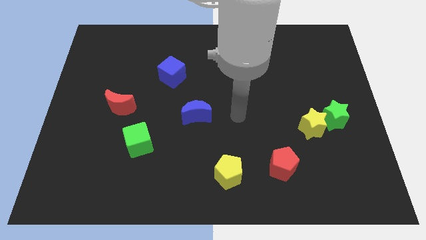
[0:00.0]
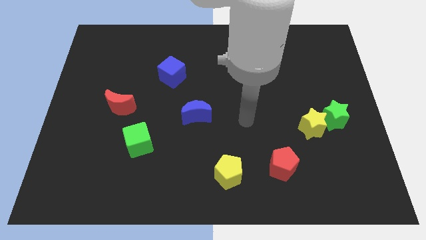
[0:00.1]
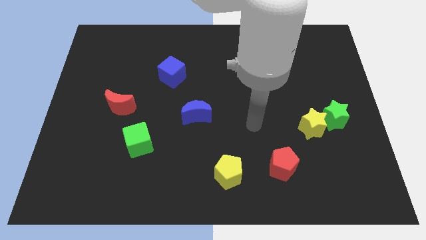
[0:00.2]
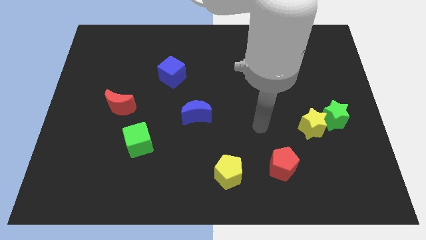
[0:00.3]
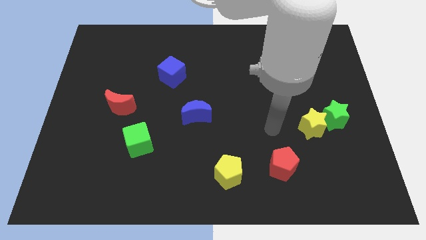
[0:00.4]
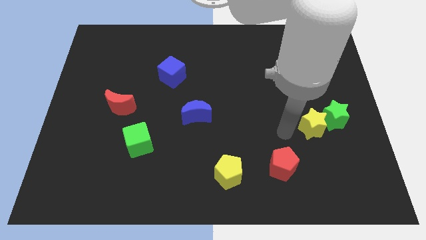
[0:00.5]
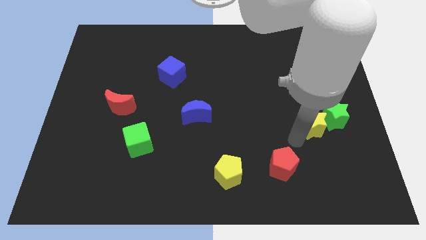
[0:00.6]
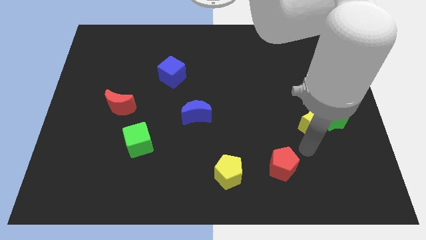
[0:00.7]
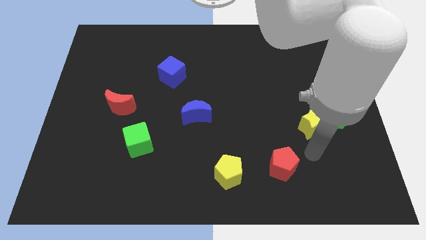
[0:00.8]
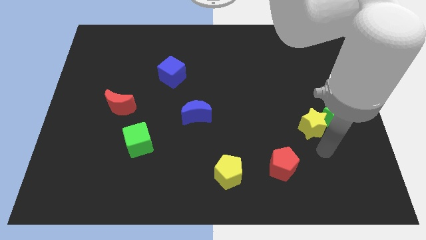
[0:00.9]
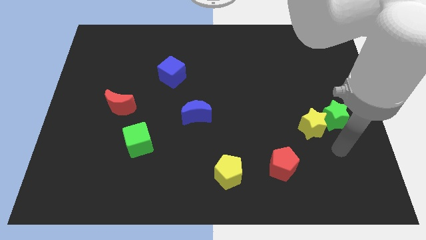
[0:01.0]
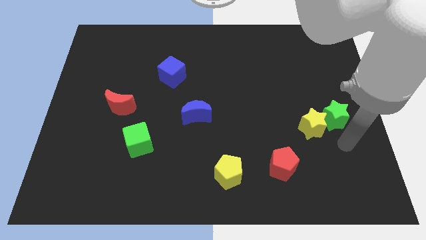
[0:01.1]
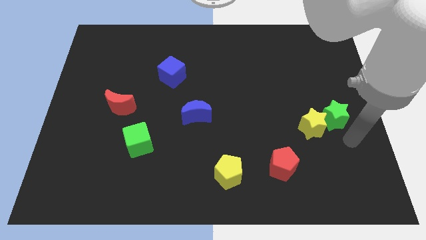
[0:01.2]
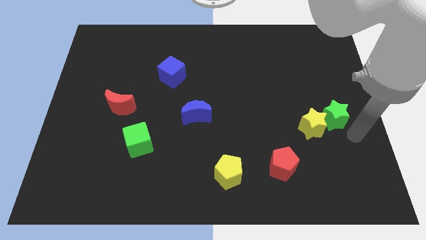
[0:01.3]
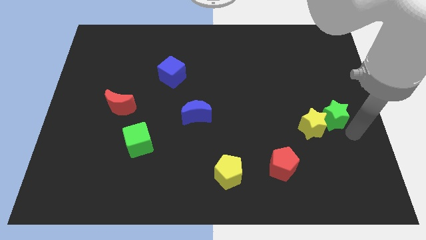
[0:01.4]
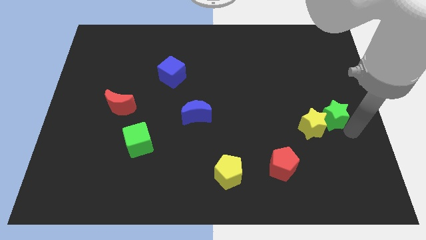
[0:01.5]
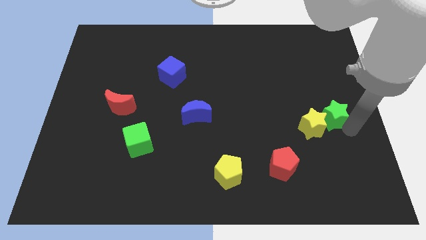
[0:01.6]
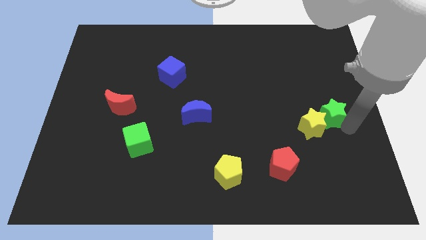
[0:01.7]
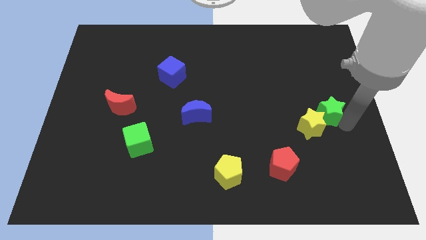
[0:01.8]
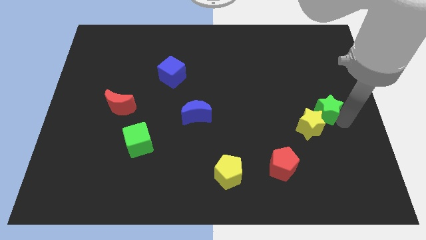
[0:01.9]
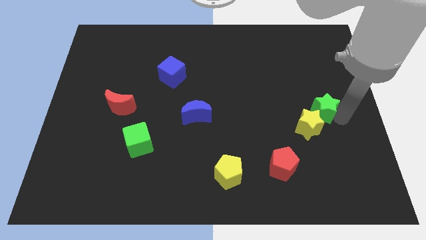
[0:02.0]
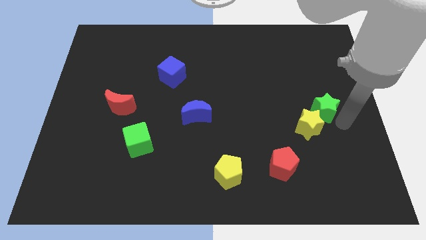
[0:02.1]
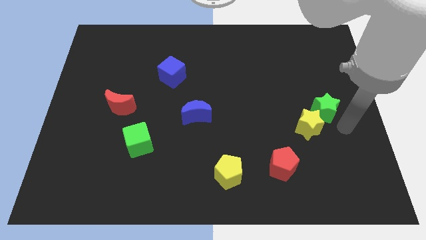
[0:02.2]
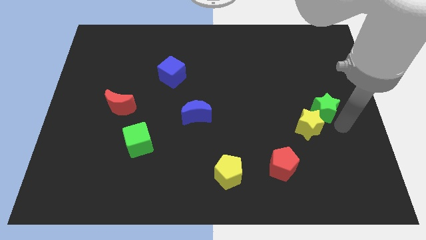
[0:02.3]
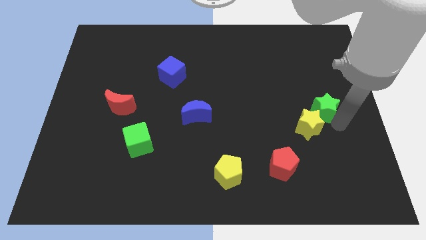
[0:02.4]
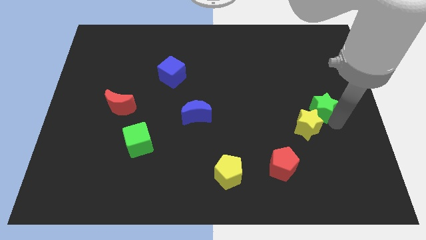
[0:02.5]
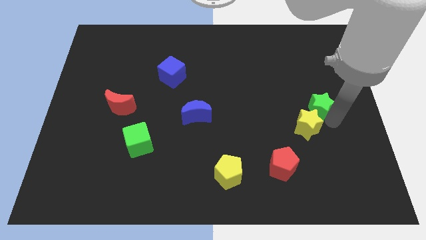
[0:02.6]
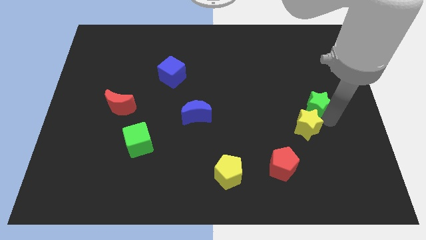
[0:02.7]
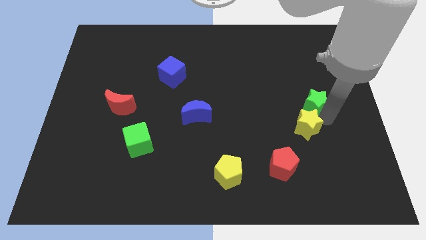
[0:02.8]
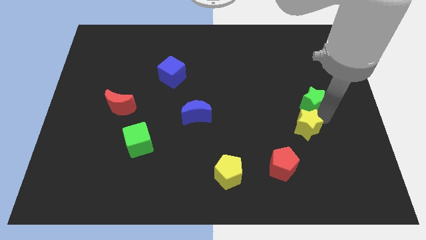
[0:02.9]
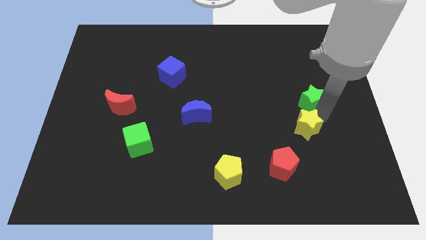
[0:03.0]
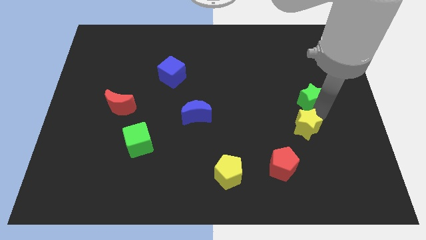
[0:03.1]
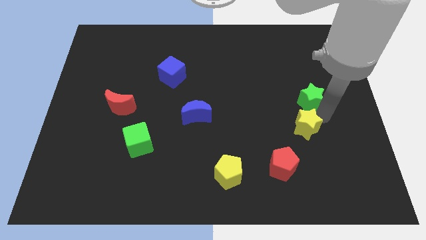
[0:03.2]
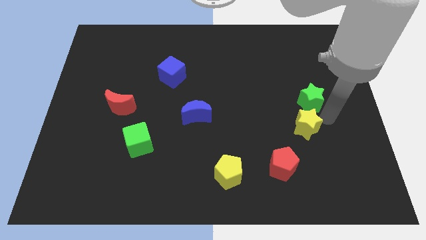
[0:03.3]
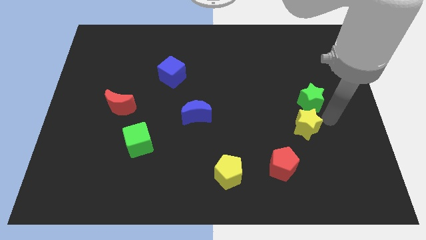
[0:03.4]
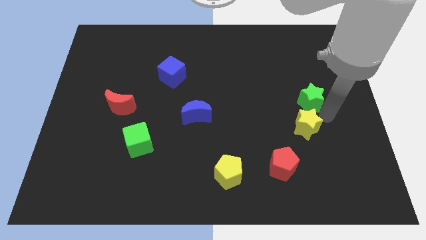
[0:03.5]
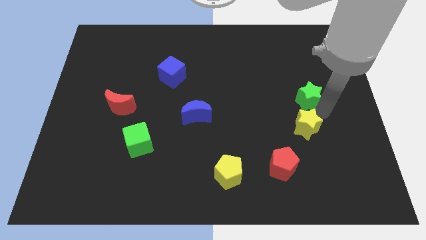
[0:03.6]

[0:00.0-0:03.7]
move the green star a bit upwards and then to the left

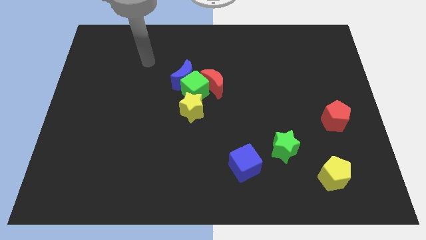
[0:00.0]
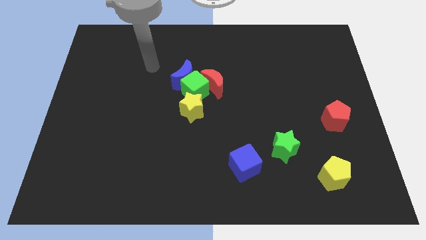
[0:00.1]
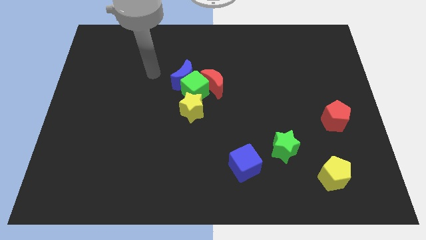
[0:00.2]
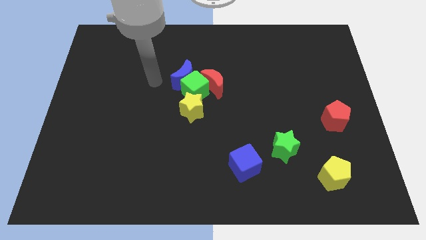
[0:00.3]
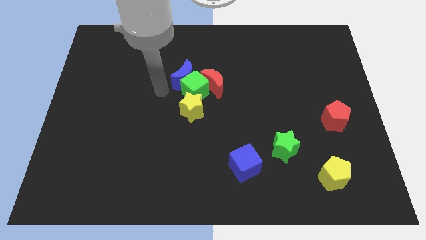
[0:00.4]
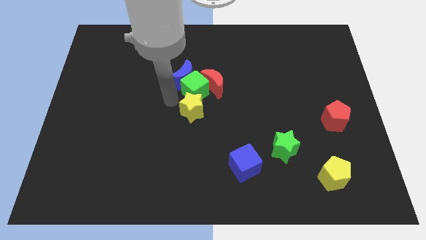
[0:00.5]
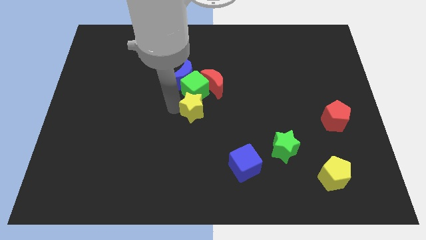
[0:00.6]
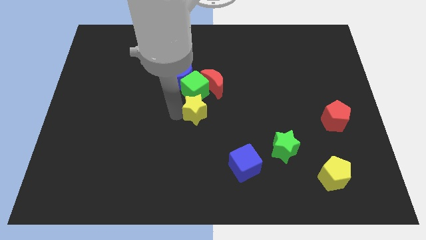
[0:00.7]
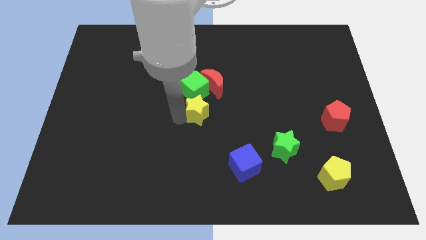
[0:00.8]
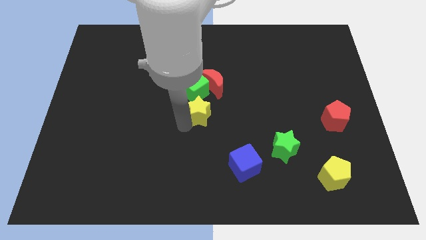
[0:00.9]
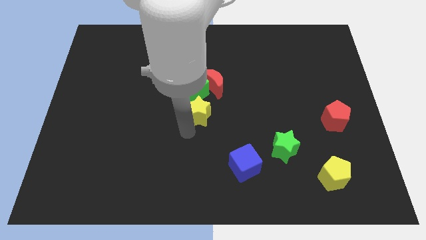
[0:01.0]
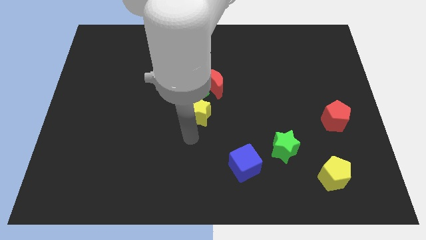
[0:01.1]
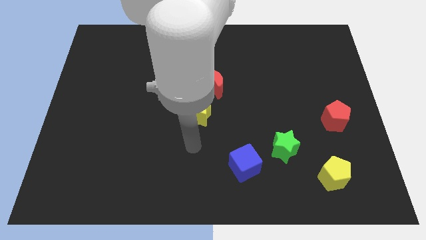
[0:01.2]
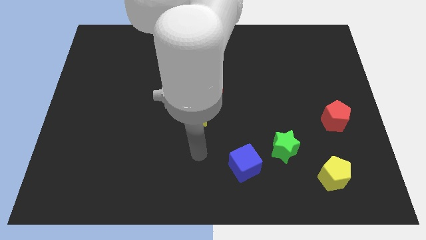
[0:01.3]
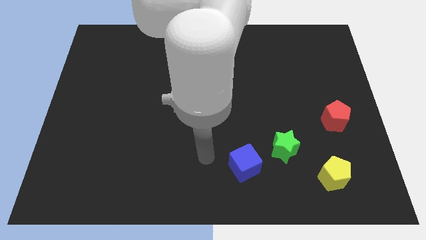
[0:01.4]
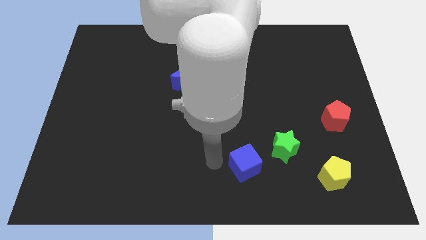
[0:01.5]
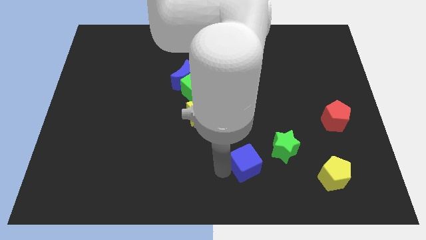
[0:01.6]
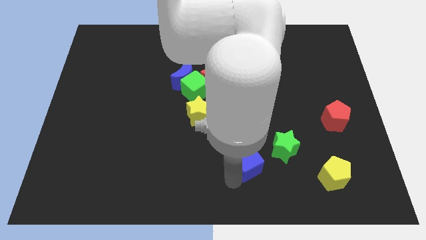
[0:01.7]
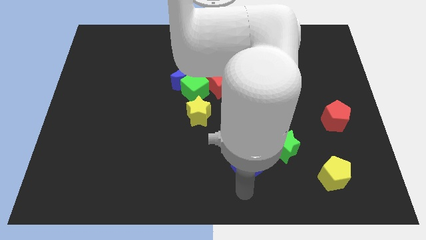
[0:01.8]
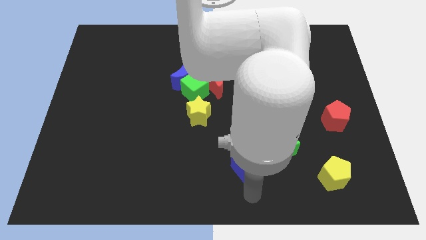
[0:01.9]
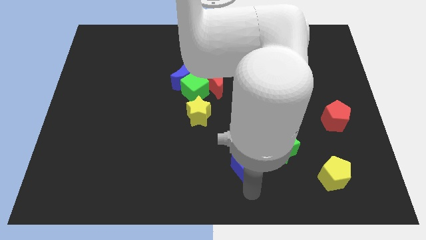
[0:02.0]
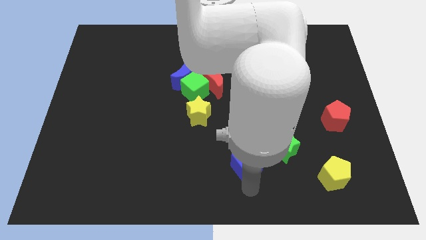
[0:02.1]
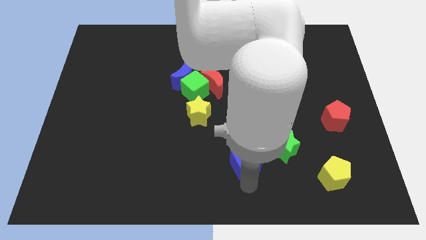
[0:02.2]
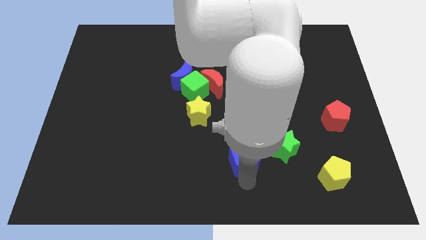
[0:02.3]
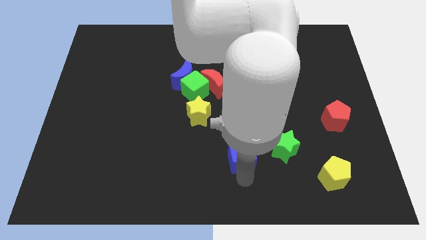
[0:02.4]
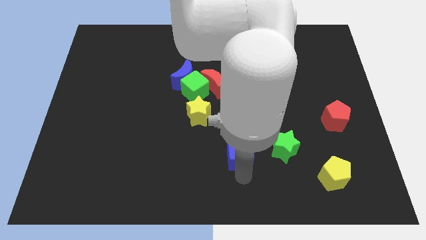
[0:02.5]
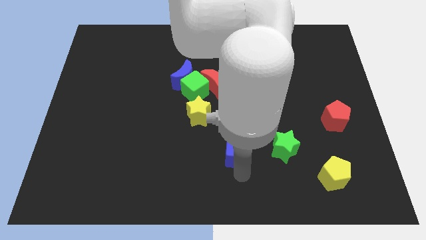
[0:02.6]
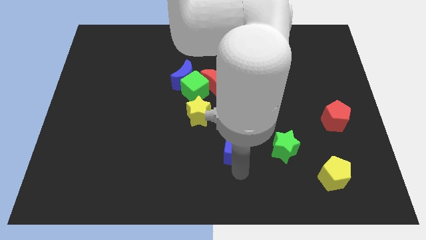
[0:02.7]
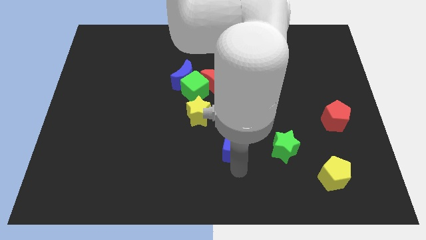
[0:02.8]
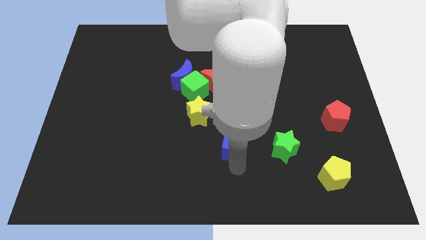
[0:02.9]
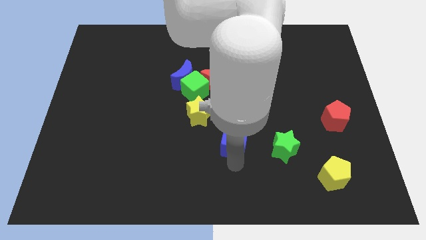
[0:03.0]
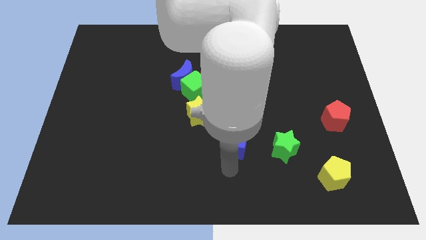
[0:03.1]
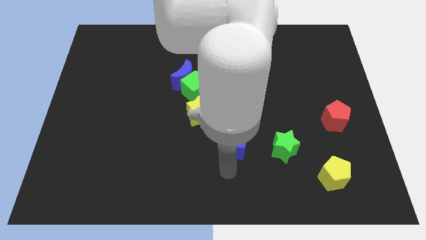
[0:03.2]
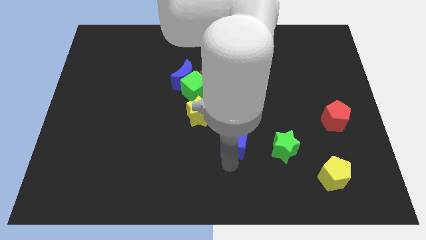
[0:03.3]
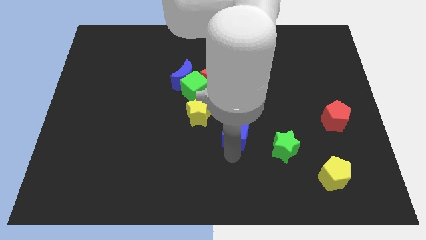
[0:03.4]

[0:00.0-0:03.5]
move the blue cube a bit upwards

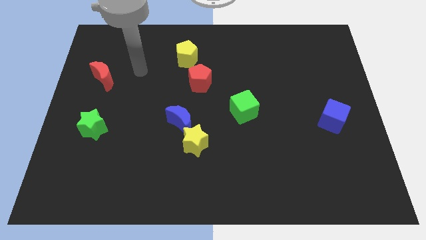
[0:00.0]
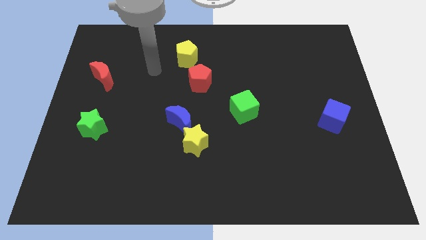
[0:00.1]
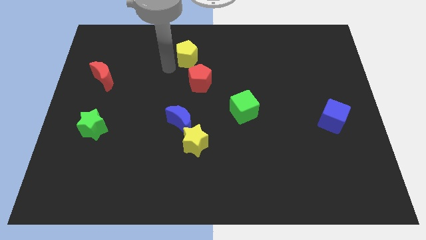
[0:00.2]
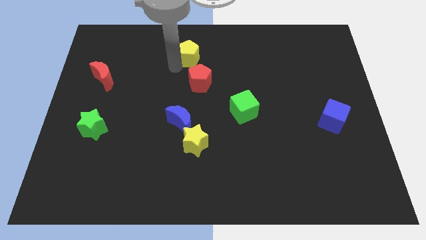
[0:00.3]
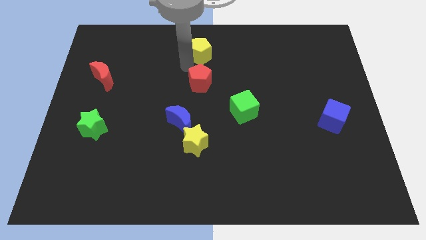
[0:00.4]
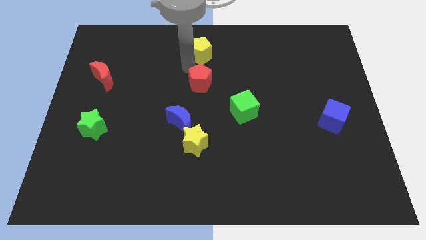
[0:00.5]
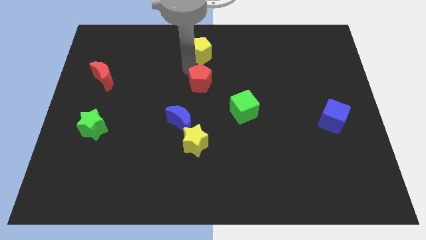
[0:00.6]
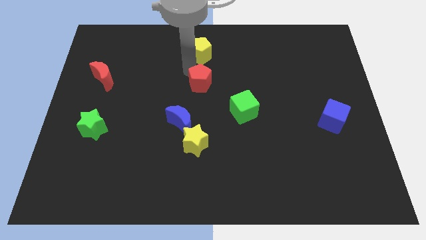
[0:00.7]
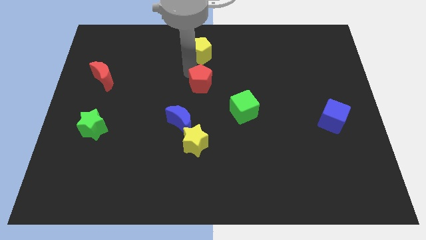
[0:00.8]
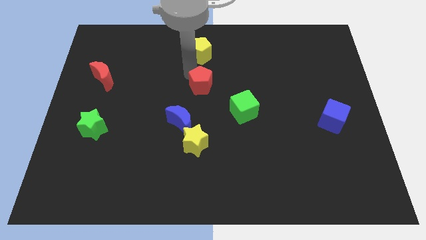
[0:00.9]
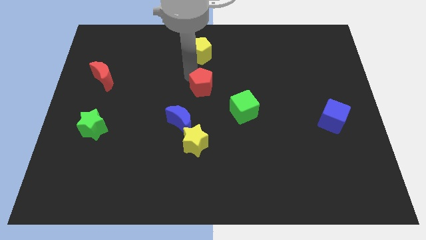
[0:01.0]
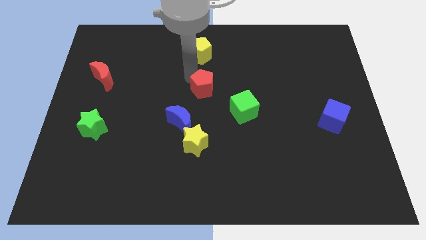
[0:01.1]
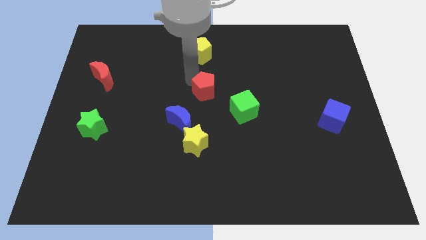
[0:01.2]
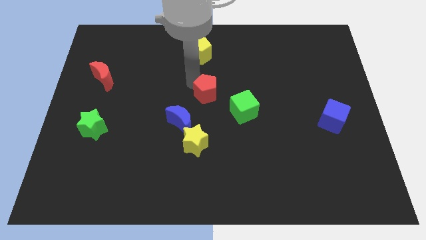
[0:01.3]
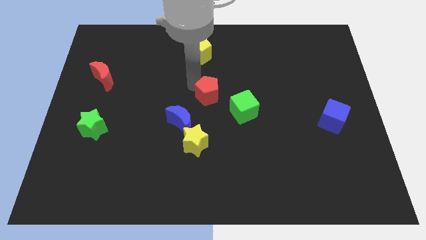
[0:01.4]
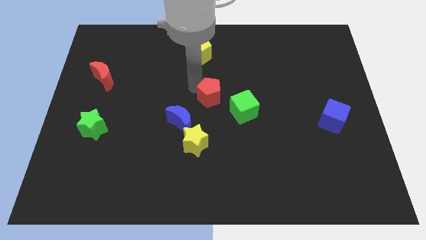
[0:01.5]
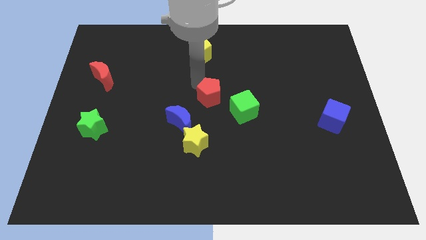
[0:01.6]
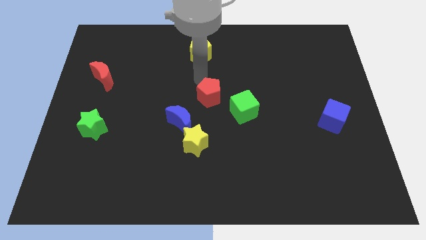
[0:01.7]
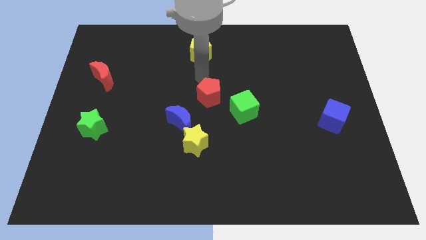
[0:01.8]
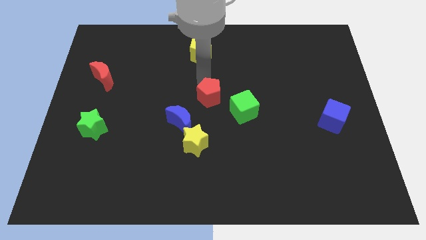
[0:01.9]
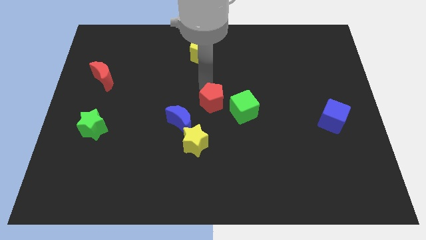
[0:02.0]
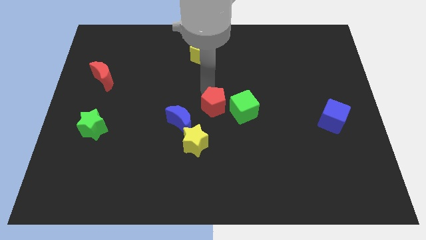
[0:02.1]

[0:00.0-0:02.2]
slightly push the red pentagon downwards and right diagonally
